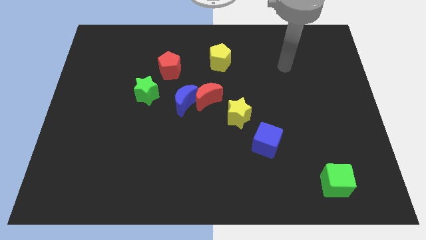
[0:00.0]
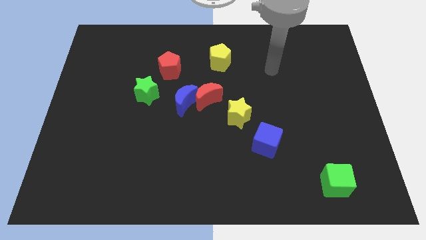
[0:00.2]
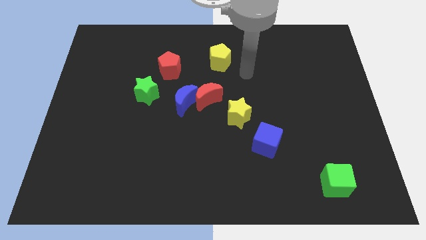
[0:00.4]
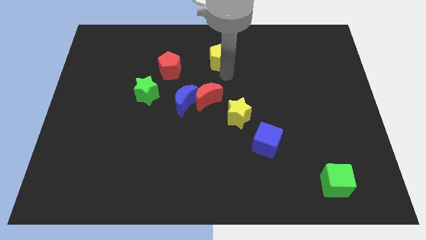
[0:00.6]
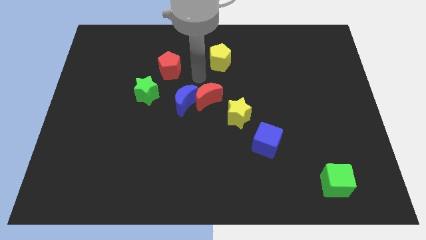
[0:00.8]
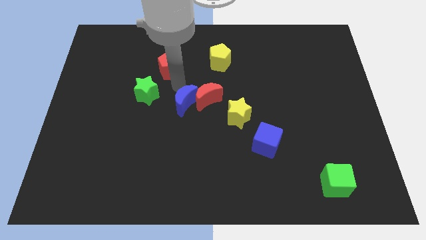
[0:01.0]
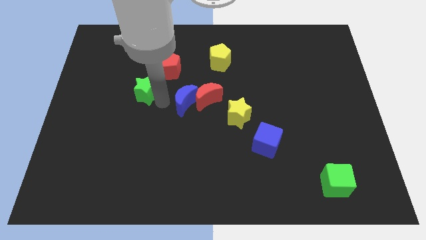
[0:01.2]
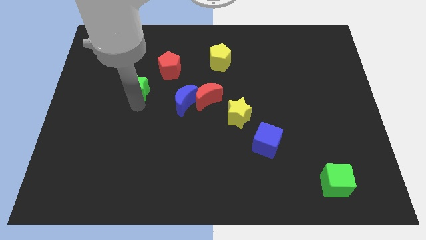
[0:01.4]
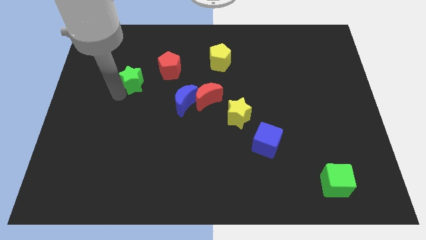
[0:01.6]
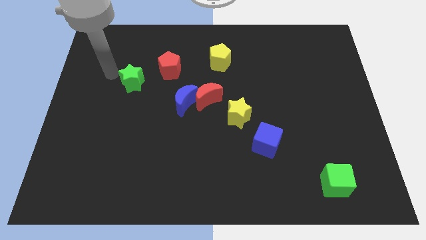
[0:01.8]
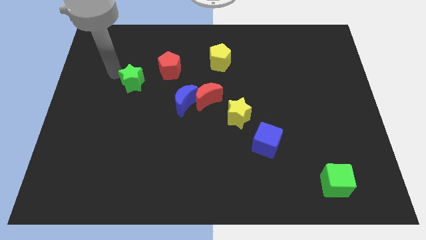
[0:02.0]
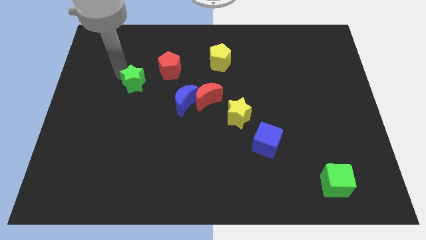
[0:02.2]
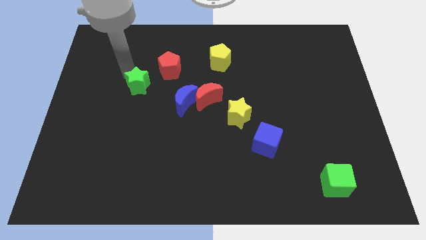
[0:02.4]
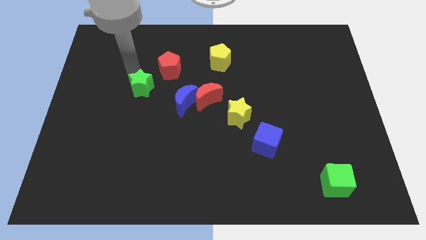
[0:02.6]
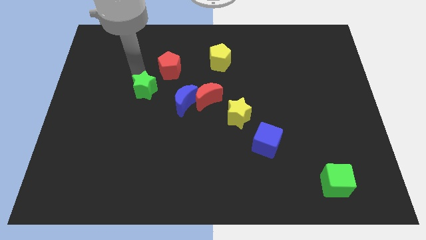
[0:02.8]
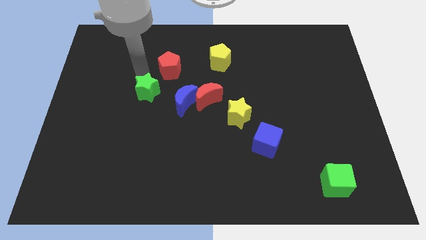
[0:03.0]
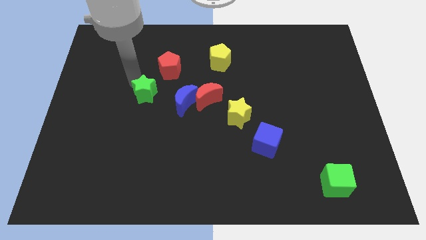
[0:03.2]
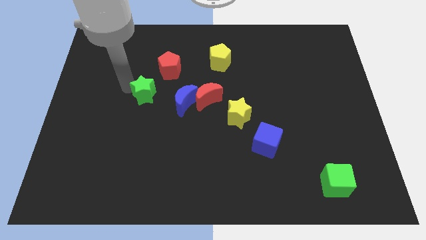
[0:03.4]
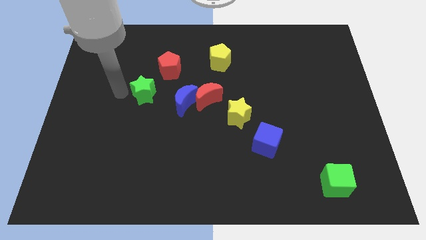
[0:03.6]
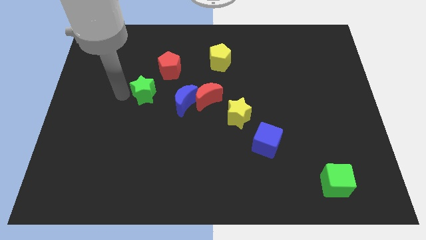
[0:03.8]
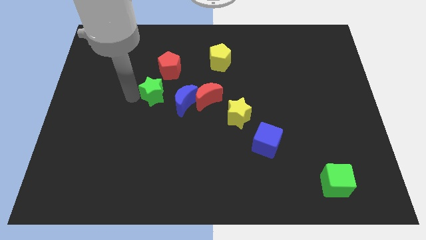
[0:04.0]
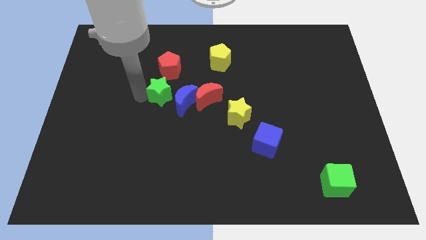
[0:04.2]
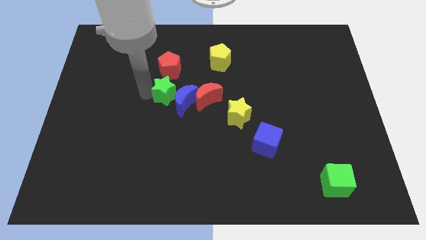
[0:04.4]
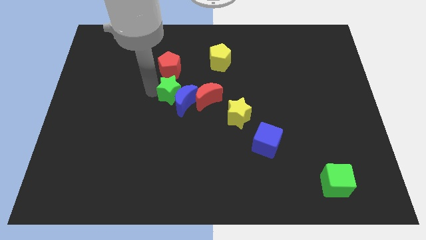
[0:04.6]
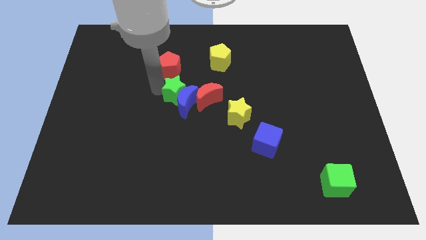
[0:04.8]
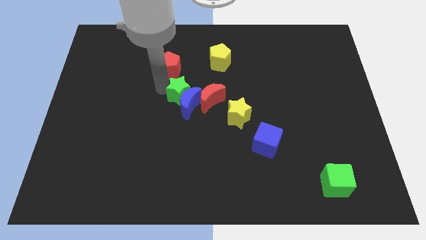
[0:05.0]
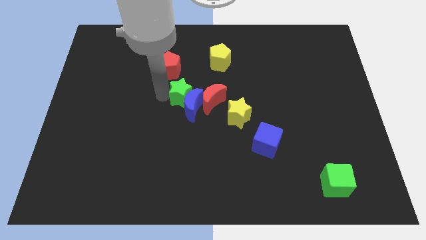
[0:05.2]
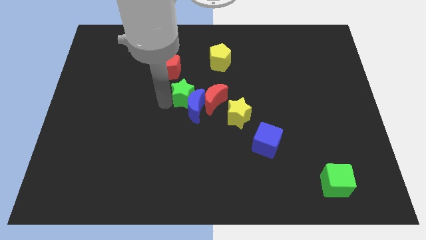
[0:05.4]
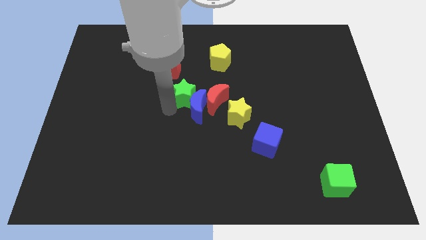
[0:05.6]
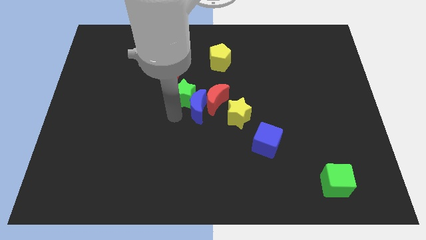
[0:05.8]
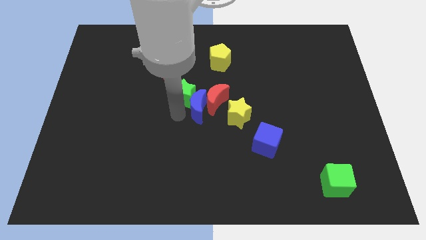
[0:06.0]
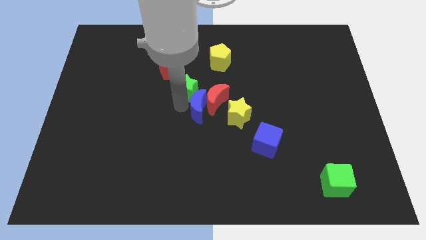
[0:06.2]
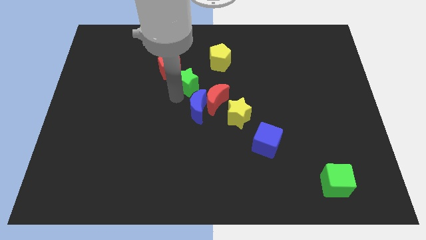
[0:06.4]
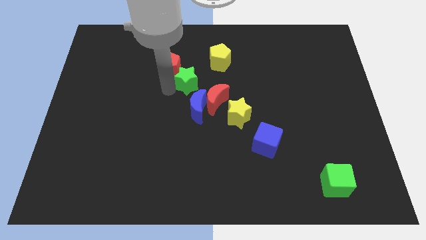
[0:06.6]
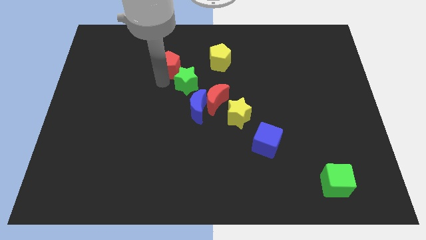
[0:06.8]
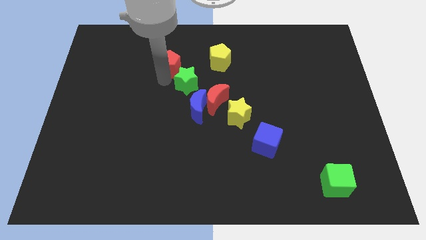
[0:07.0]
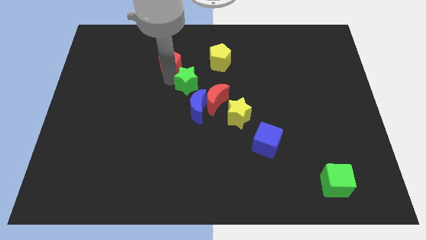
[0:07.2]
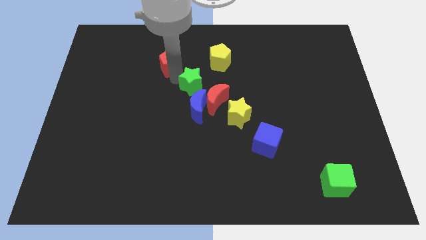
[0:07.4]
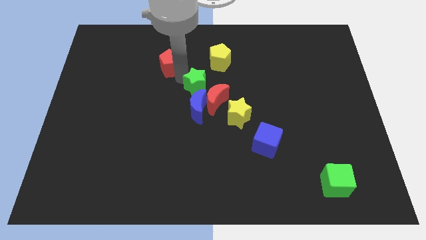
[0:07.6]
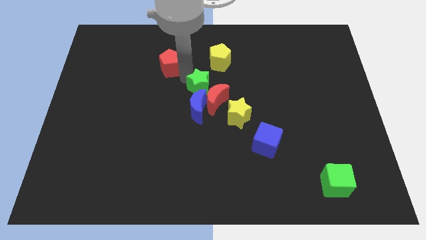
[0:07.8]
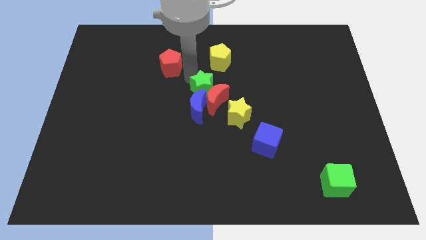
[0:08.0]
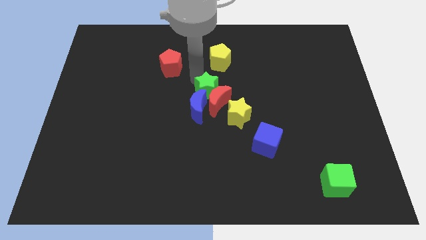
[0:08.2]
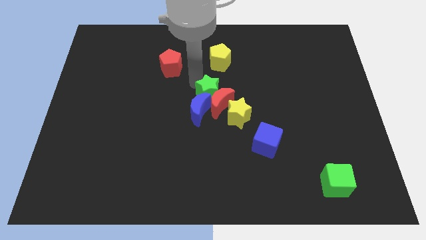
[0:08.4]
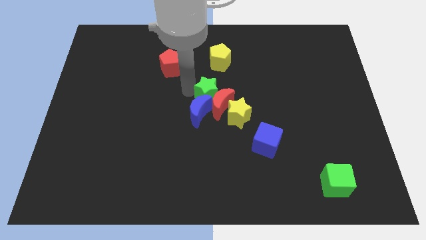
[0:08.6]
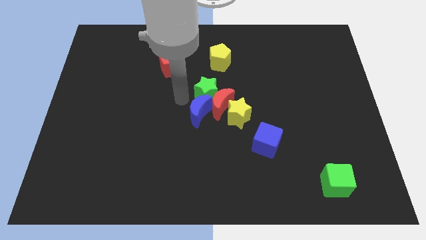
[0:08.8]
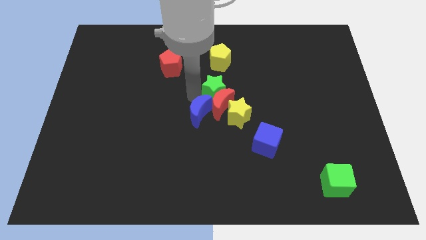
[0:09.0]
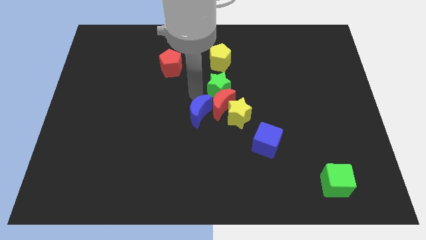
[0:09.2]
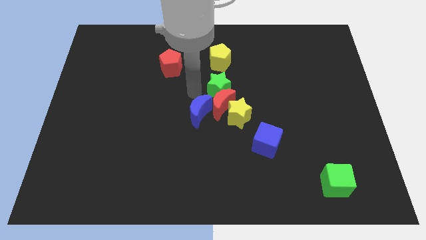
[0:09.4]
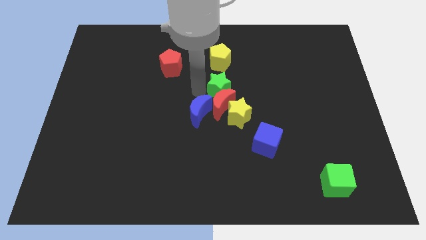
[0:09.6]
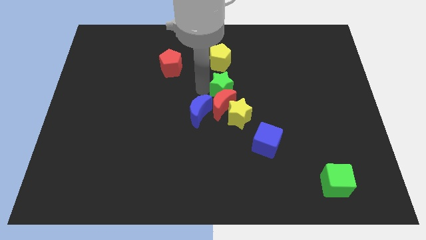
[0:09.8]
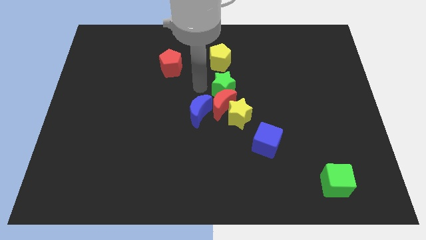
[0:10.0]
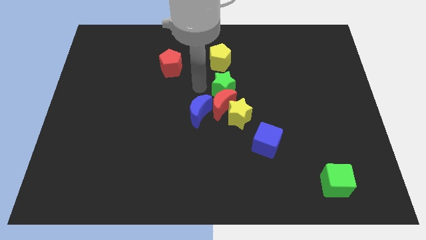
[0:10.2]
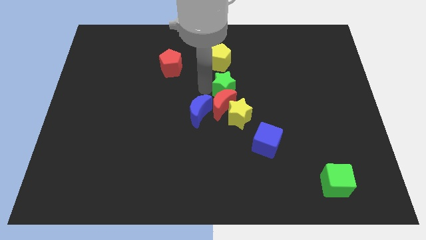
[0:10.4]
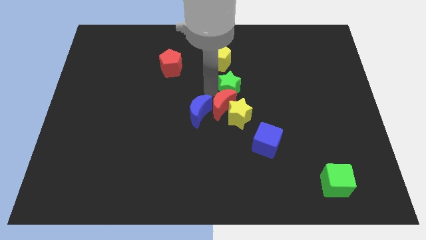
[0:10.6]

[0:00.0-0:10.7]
push the green star right

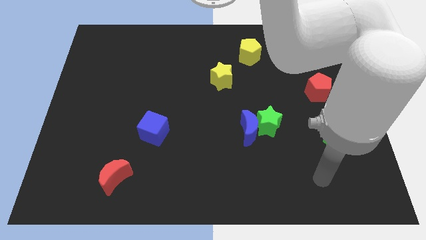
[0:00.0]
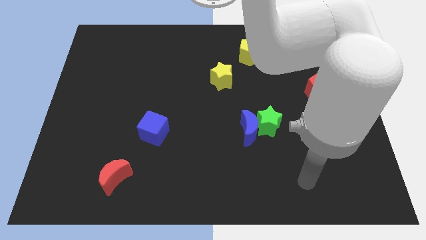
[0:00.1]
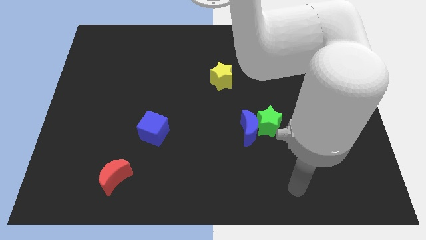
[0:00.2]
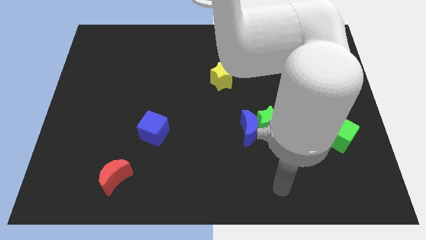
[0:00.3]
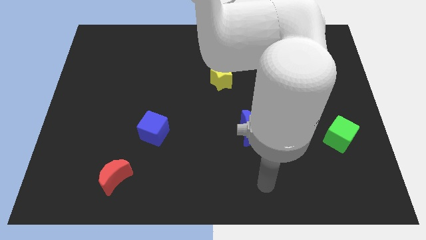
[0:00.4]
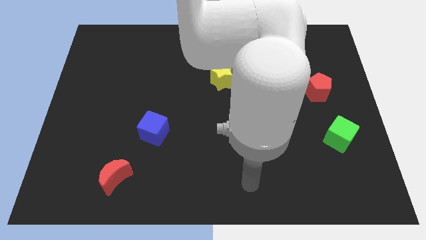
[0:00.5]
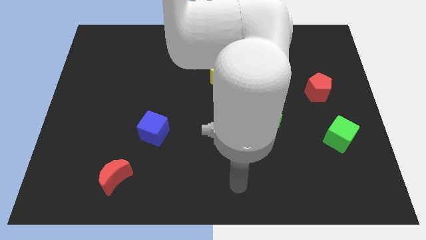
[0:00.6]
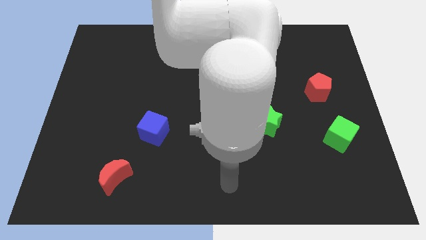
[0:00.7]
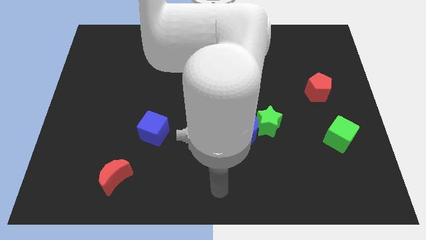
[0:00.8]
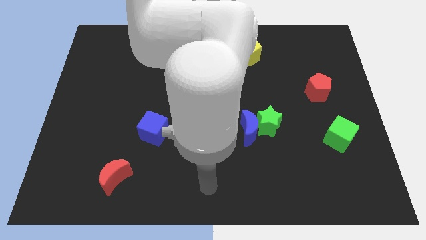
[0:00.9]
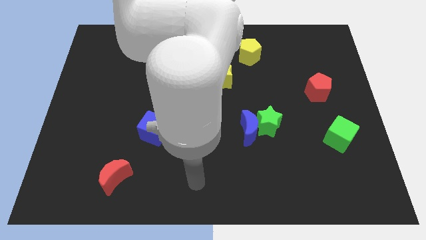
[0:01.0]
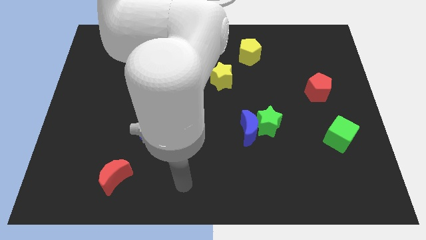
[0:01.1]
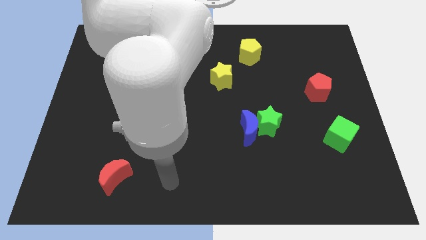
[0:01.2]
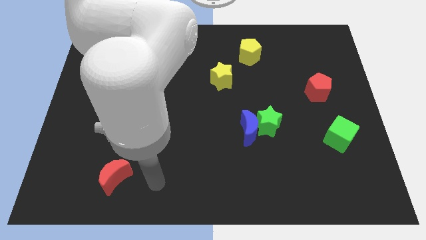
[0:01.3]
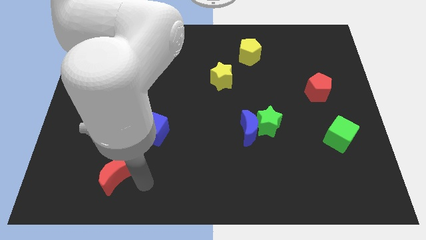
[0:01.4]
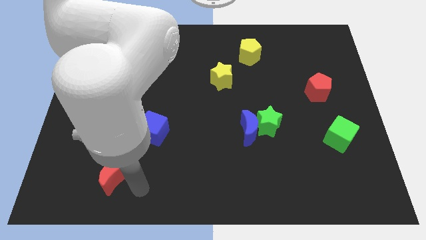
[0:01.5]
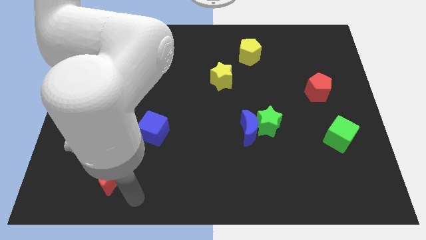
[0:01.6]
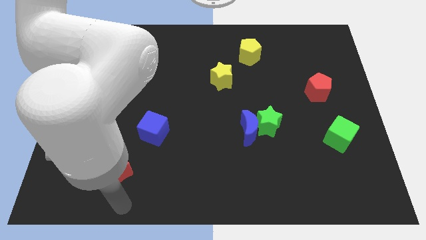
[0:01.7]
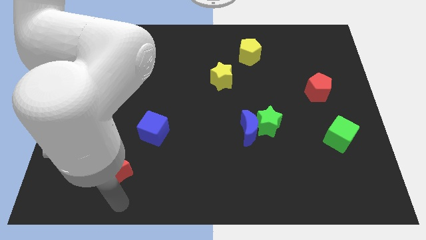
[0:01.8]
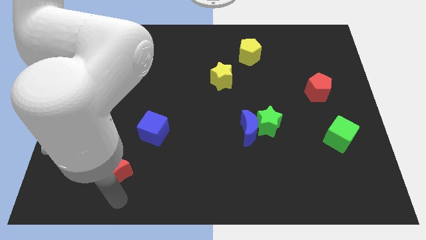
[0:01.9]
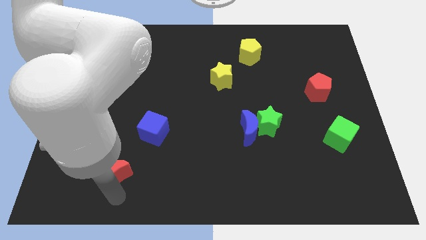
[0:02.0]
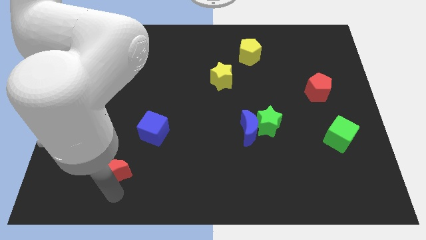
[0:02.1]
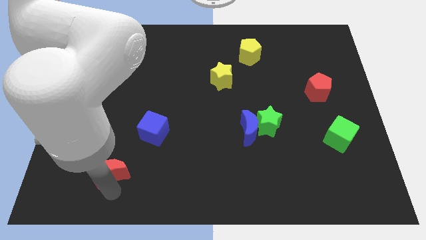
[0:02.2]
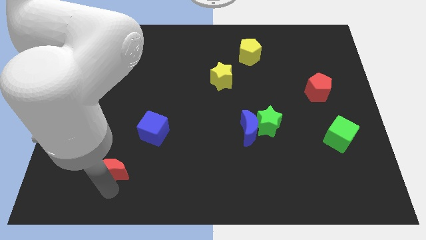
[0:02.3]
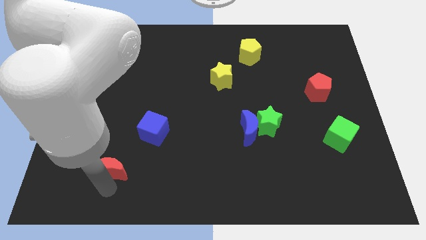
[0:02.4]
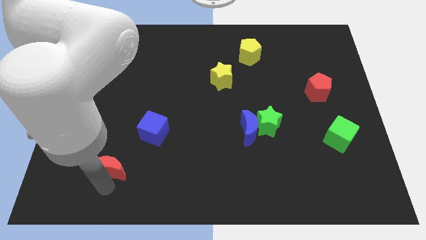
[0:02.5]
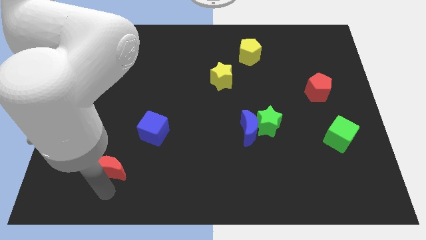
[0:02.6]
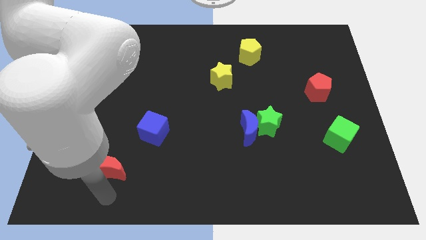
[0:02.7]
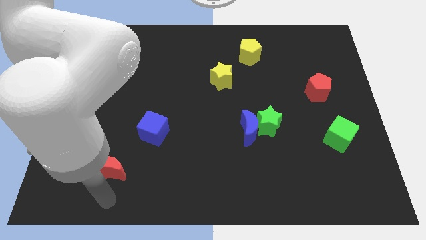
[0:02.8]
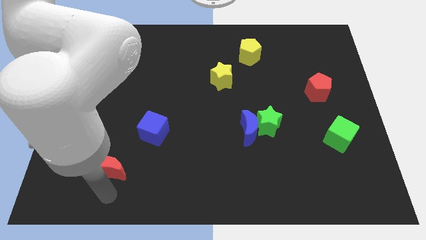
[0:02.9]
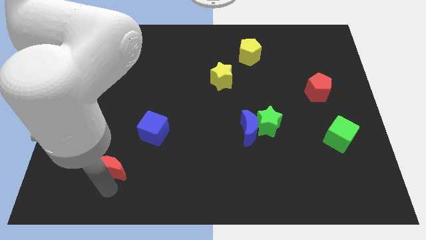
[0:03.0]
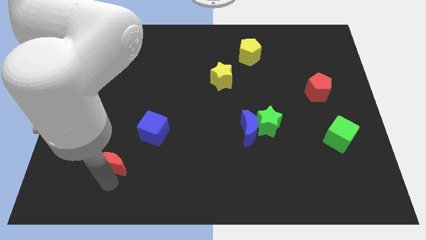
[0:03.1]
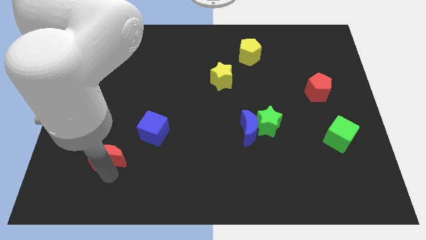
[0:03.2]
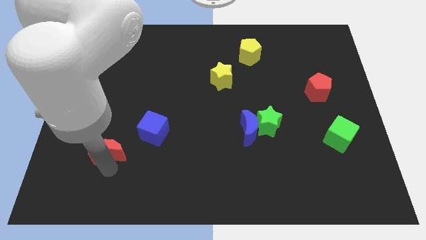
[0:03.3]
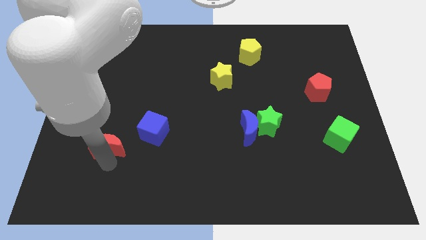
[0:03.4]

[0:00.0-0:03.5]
slightly move the red moon upwards
